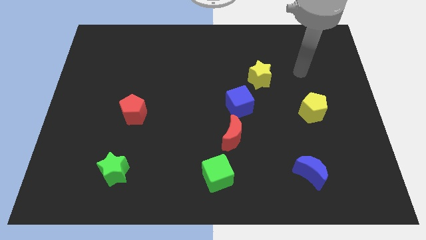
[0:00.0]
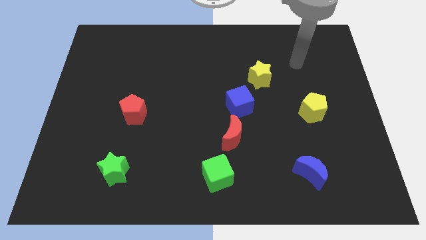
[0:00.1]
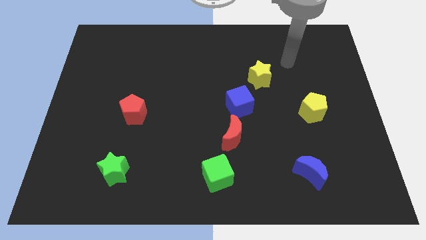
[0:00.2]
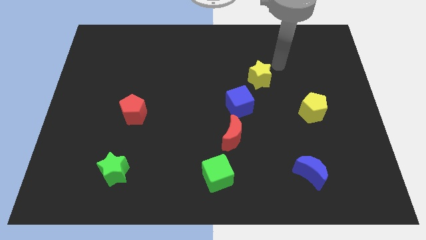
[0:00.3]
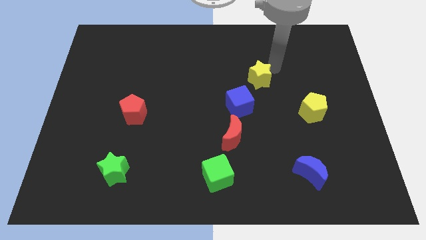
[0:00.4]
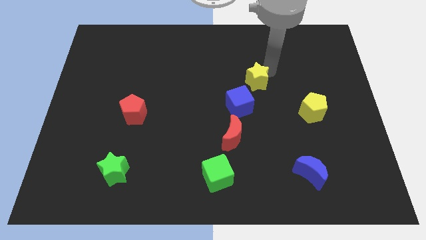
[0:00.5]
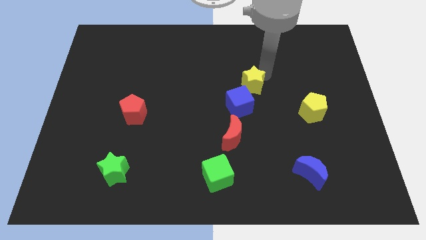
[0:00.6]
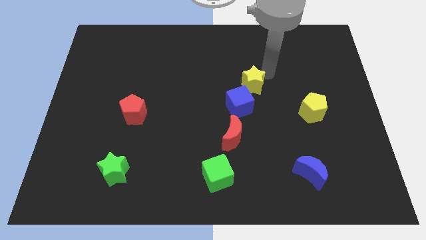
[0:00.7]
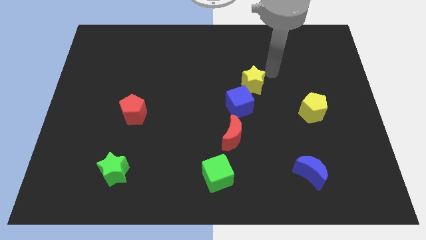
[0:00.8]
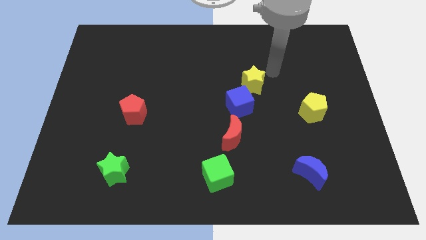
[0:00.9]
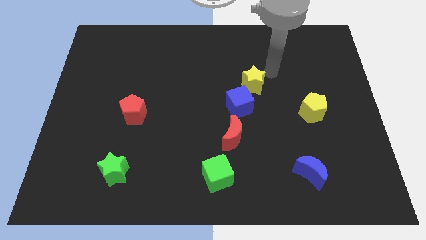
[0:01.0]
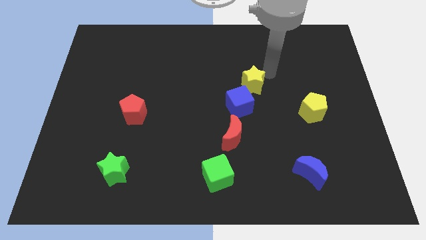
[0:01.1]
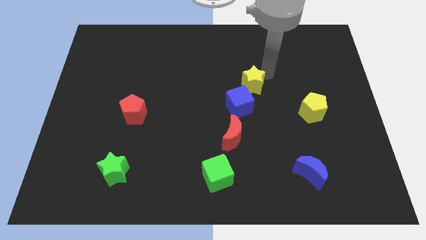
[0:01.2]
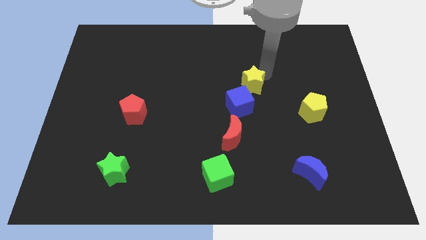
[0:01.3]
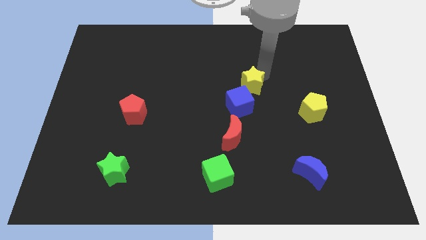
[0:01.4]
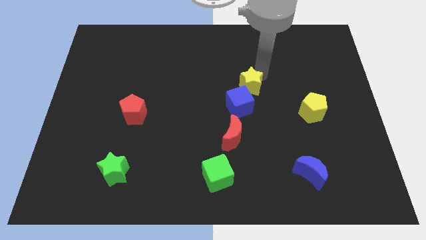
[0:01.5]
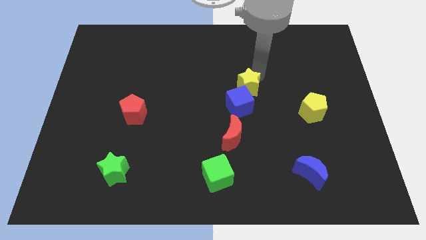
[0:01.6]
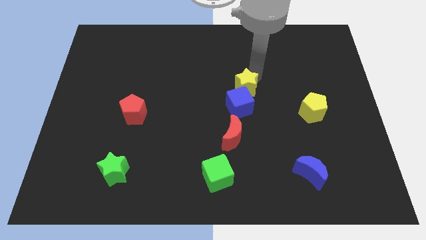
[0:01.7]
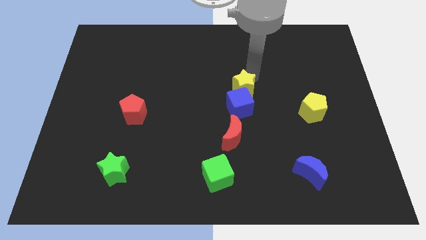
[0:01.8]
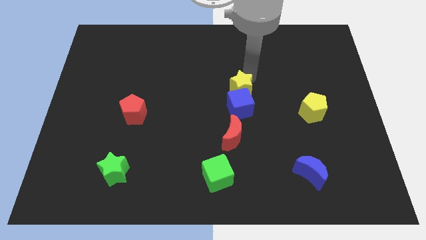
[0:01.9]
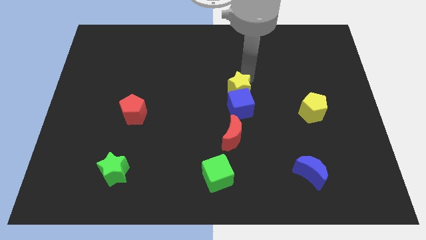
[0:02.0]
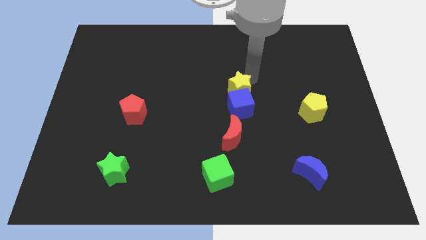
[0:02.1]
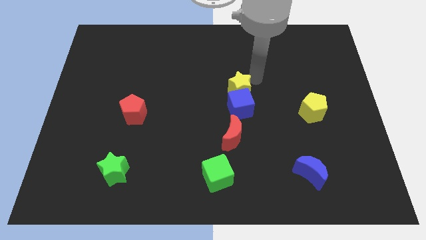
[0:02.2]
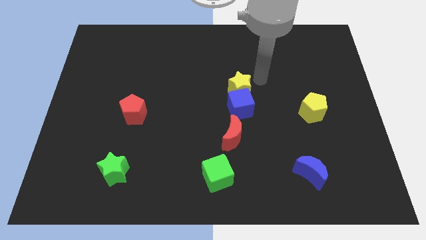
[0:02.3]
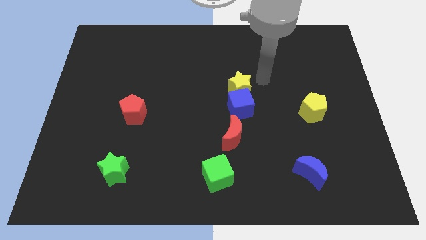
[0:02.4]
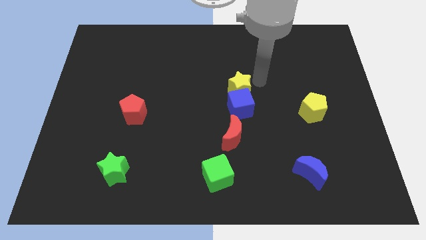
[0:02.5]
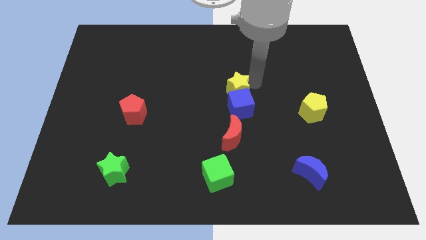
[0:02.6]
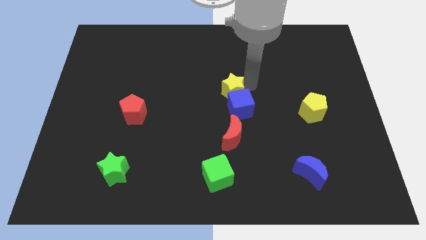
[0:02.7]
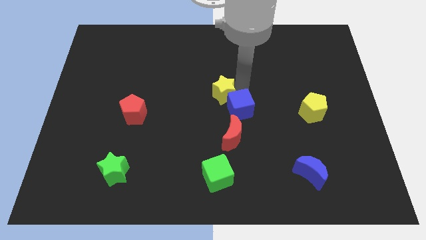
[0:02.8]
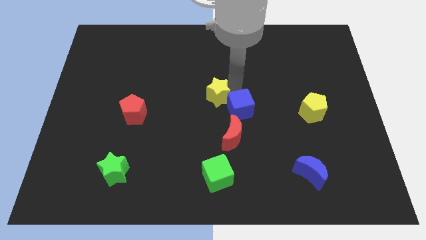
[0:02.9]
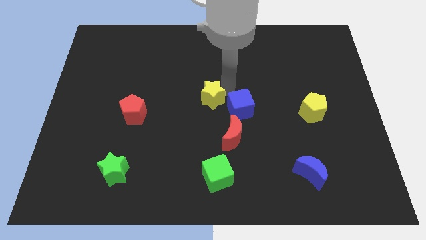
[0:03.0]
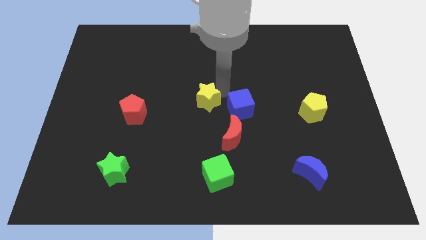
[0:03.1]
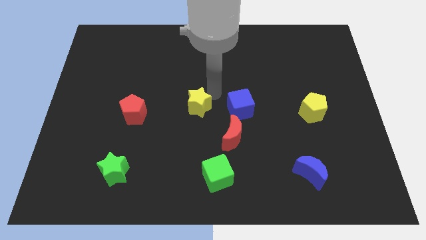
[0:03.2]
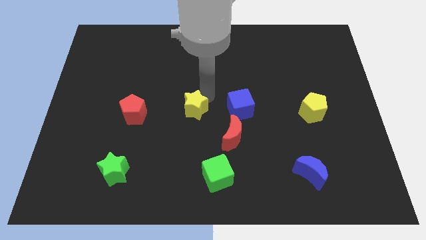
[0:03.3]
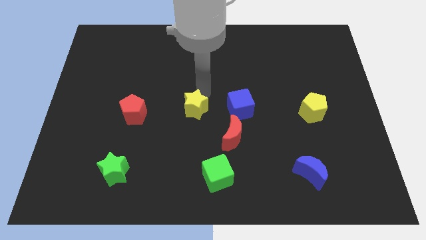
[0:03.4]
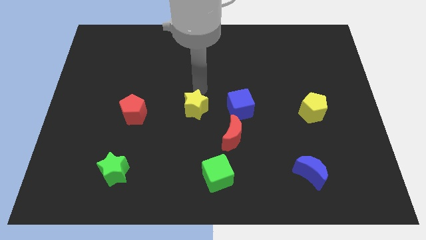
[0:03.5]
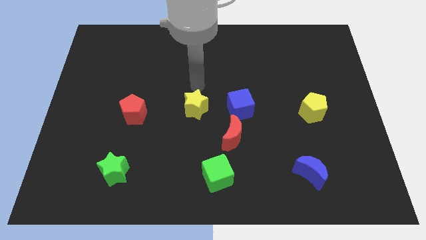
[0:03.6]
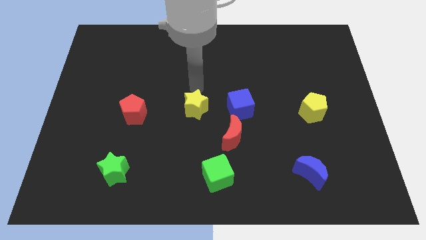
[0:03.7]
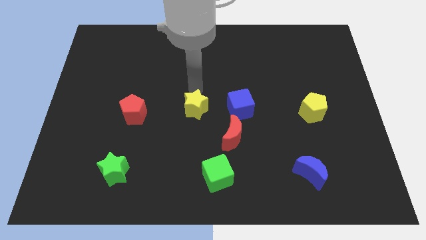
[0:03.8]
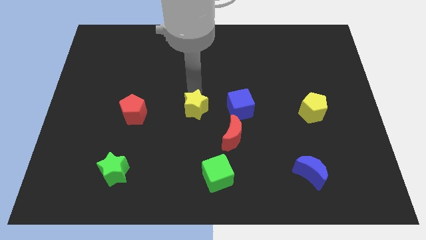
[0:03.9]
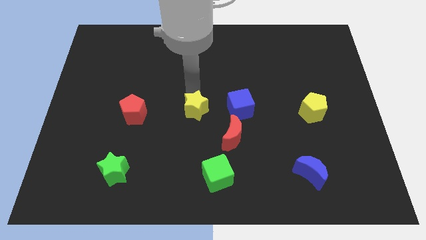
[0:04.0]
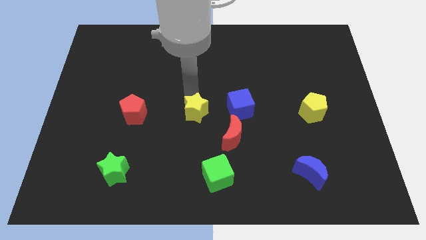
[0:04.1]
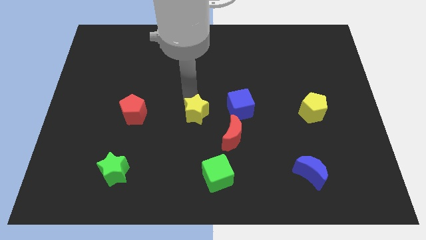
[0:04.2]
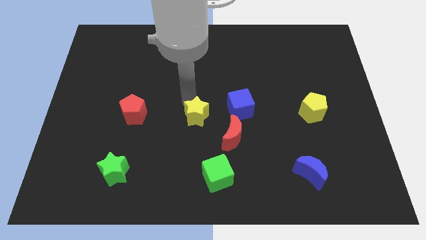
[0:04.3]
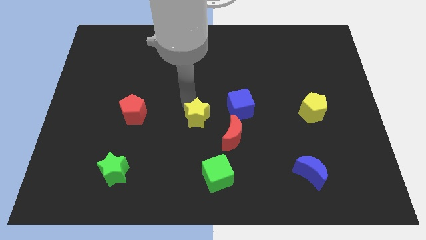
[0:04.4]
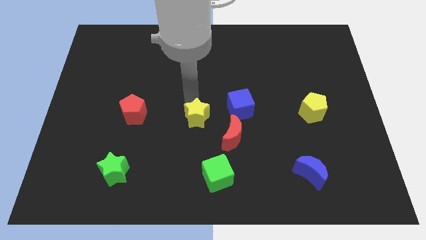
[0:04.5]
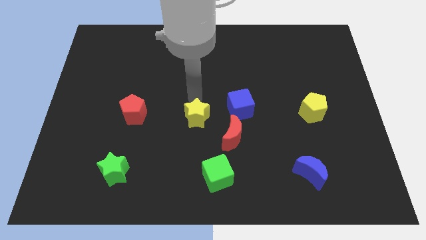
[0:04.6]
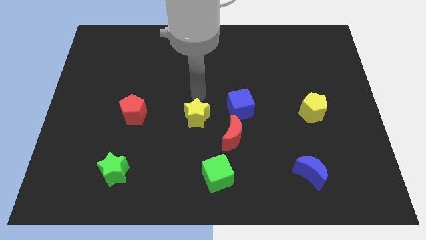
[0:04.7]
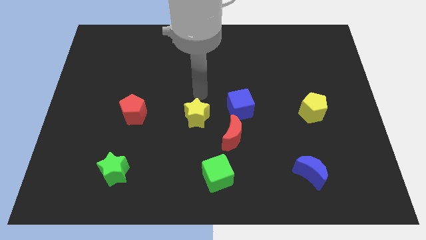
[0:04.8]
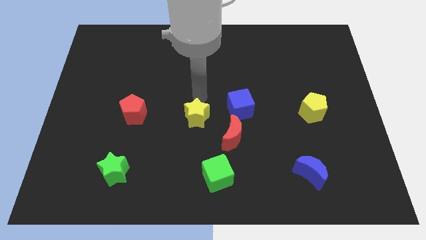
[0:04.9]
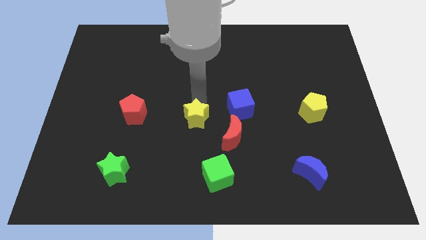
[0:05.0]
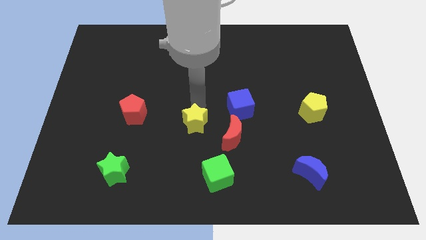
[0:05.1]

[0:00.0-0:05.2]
push the yellow star down and left diagonally

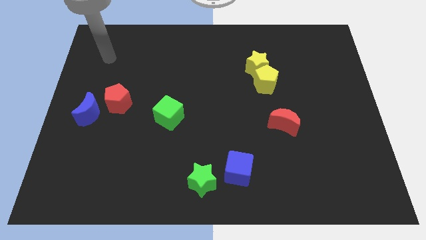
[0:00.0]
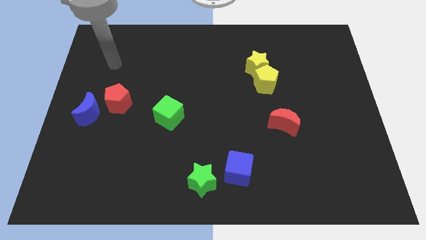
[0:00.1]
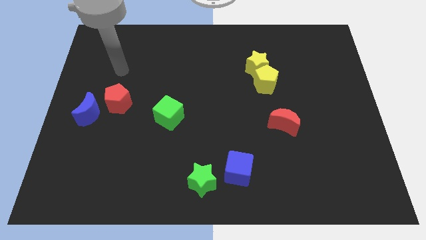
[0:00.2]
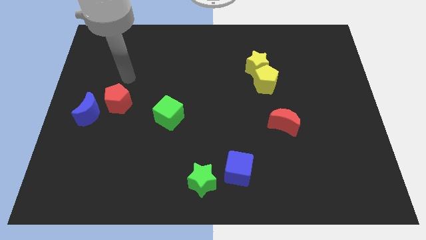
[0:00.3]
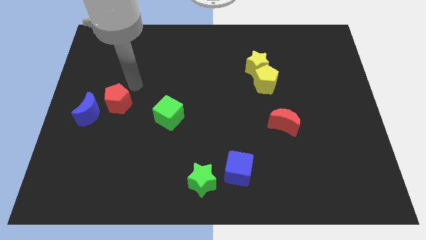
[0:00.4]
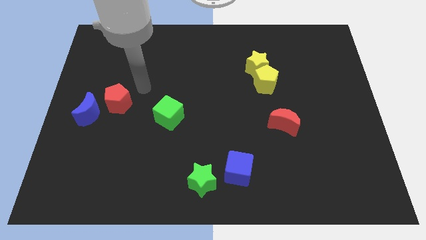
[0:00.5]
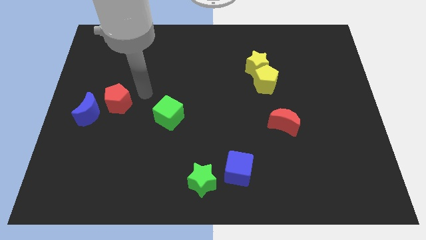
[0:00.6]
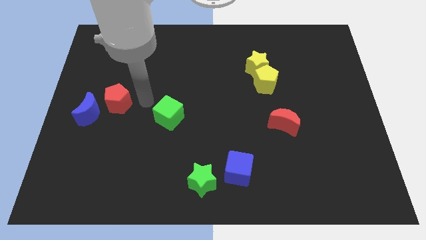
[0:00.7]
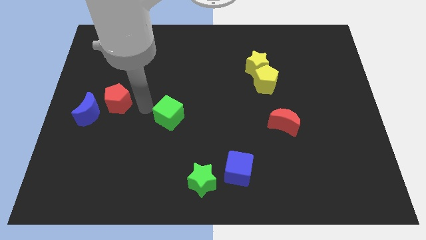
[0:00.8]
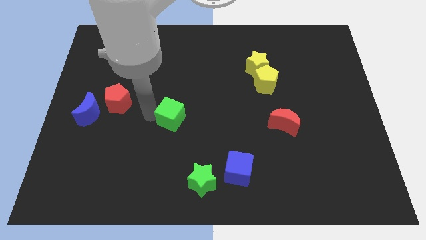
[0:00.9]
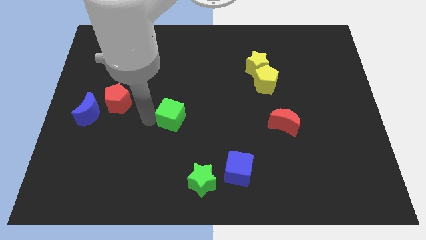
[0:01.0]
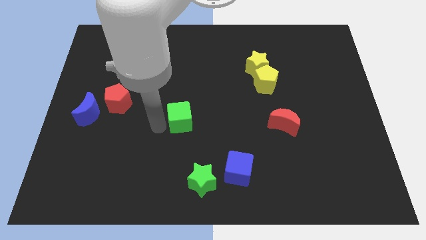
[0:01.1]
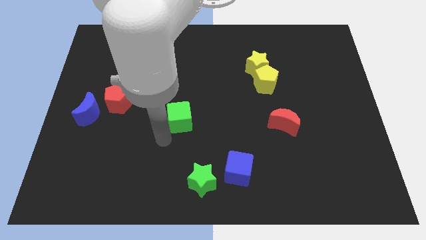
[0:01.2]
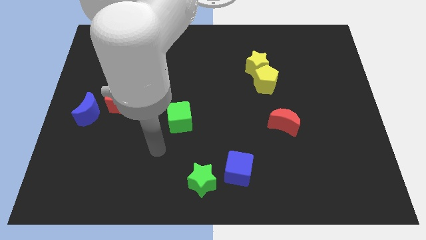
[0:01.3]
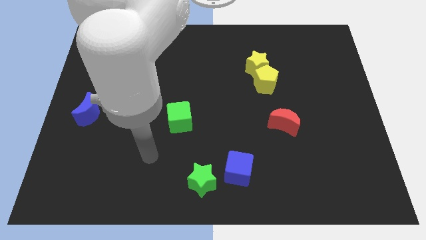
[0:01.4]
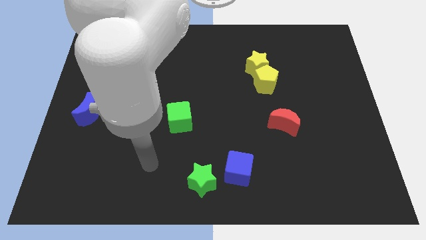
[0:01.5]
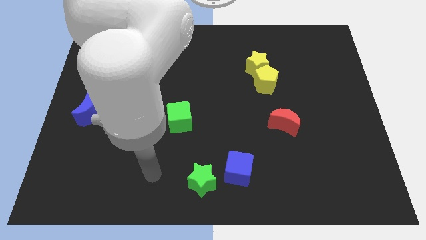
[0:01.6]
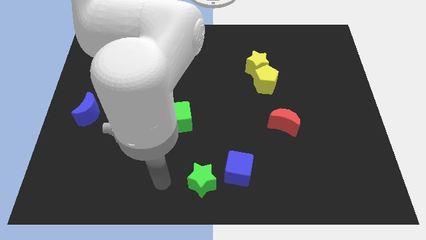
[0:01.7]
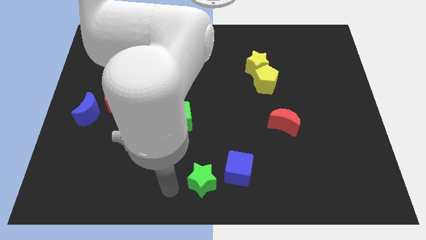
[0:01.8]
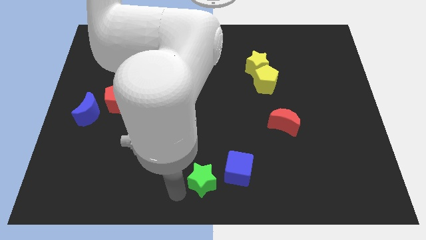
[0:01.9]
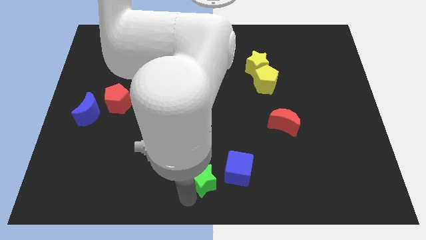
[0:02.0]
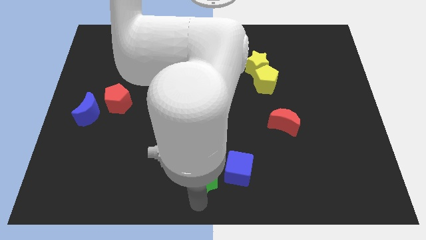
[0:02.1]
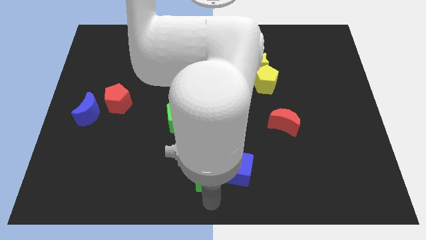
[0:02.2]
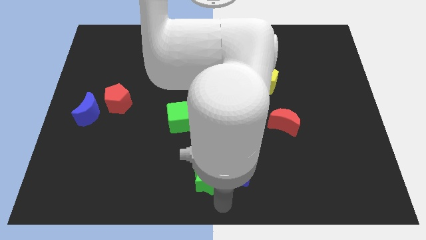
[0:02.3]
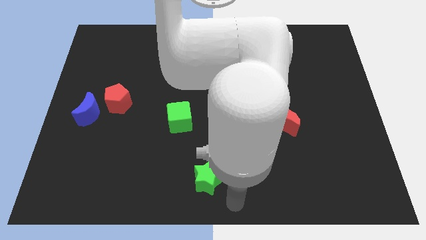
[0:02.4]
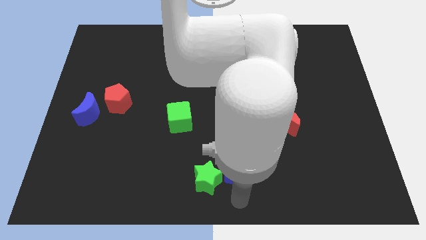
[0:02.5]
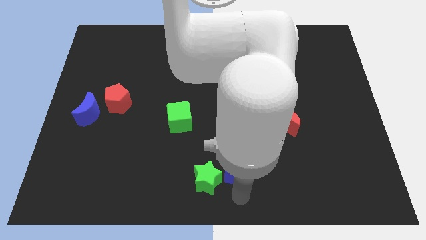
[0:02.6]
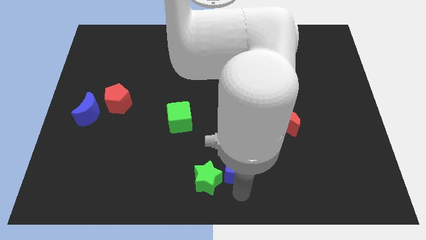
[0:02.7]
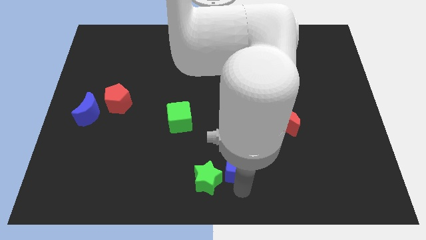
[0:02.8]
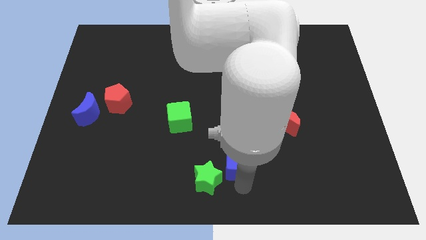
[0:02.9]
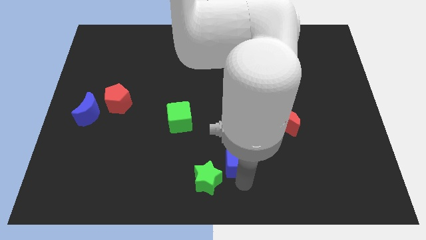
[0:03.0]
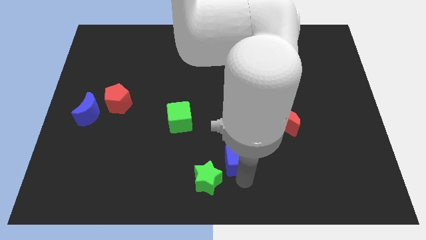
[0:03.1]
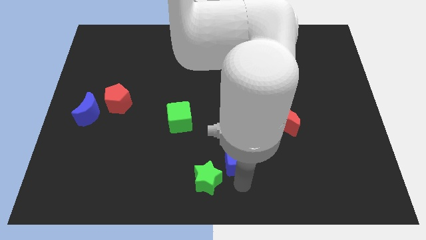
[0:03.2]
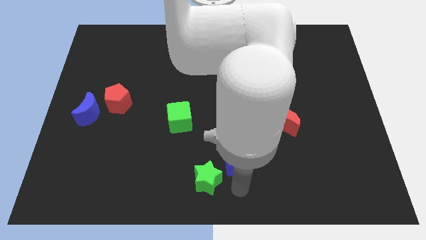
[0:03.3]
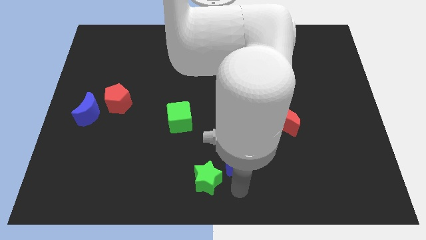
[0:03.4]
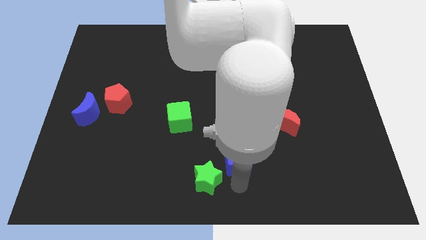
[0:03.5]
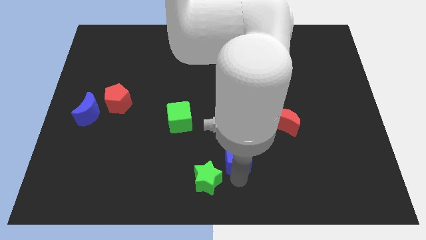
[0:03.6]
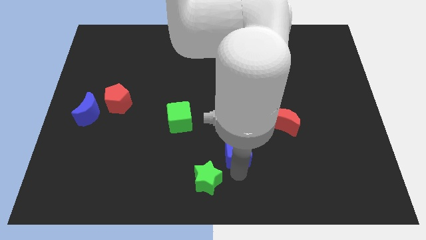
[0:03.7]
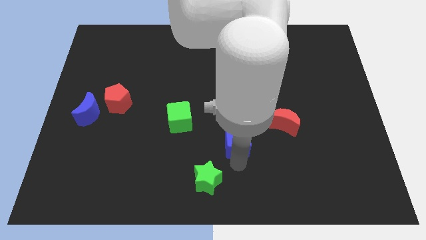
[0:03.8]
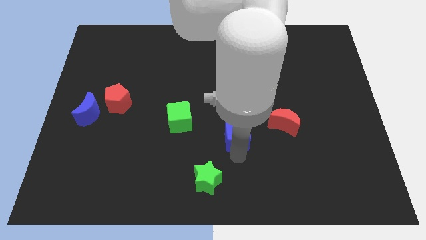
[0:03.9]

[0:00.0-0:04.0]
move the blue cube up a little
